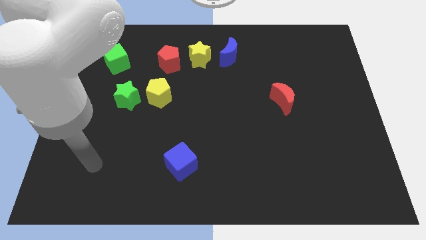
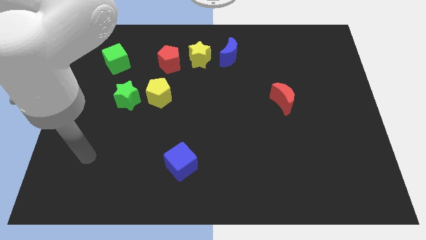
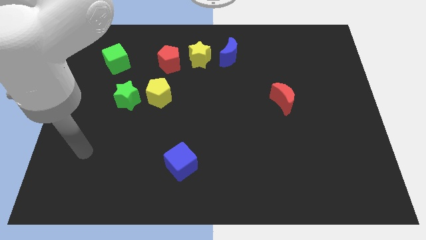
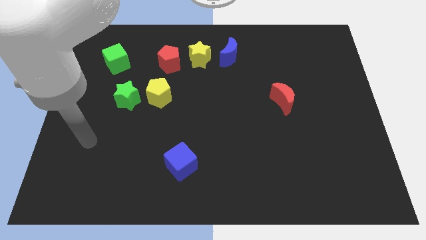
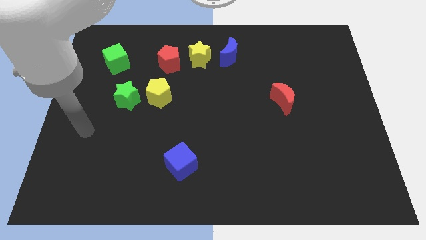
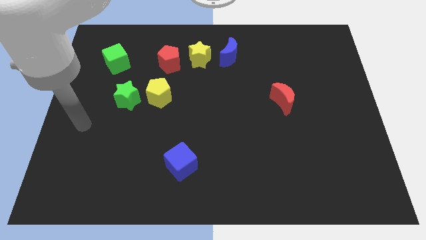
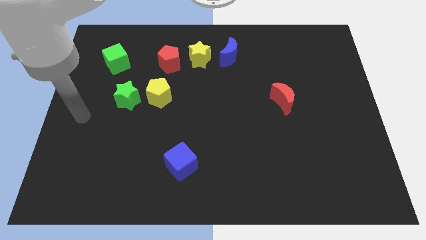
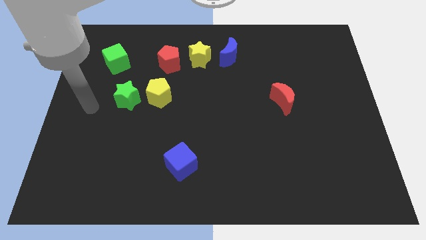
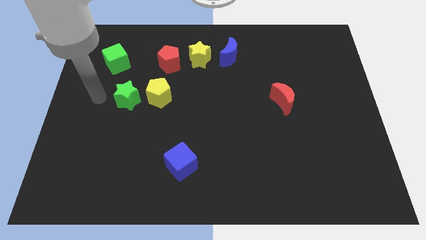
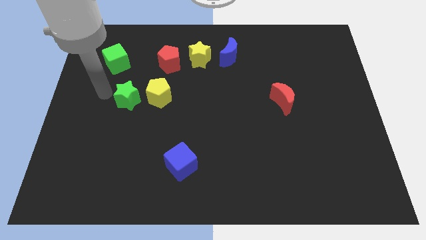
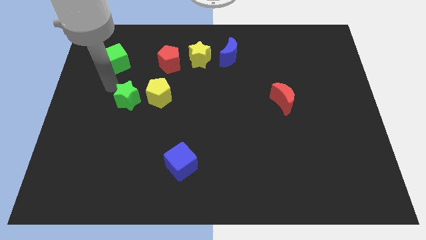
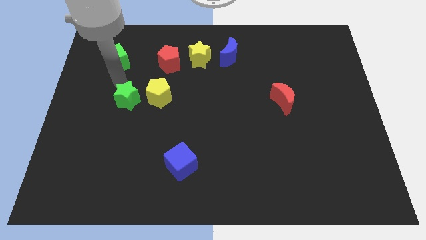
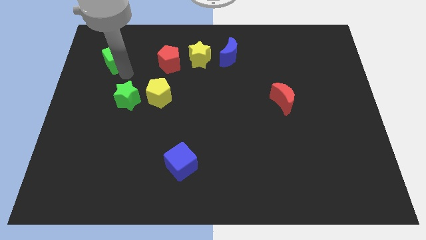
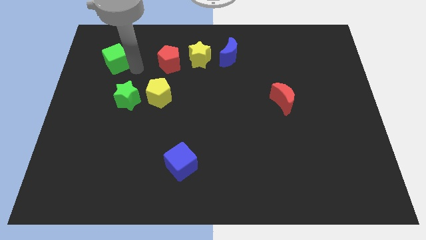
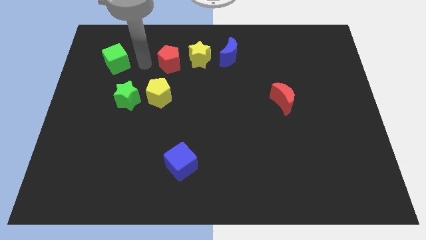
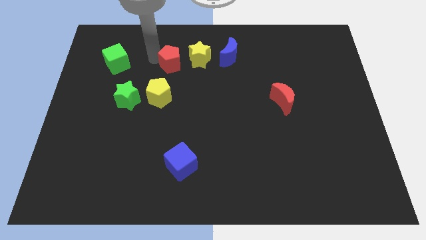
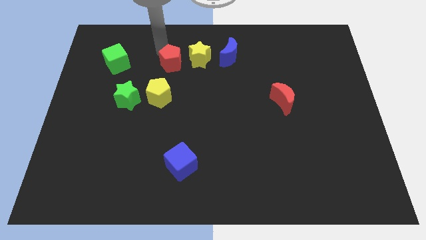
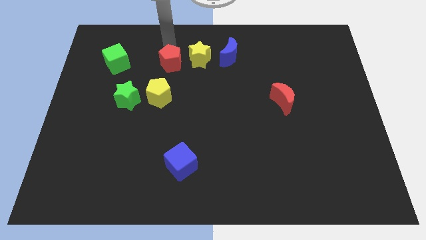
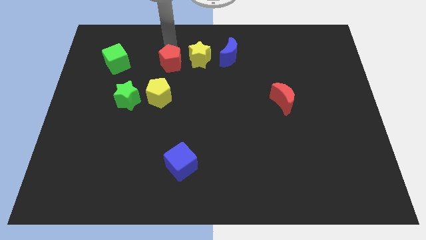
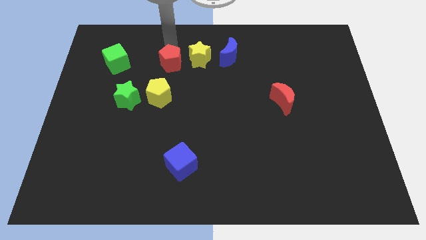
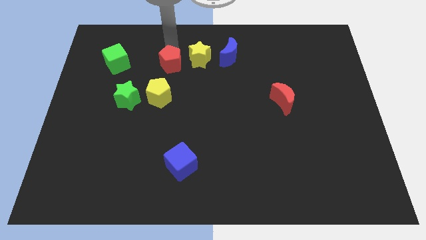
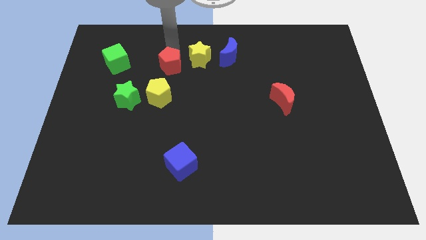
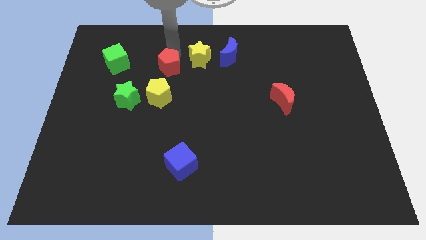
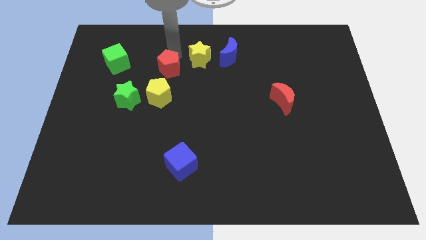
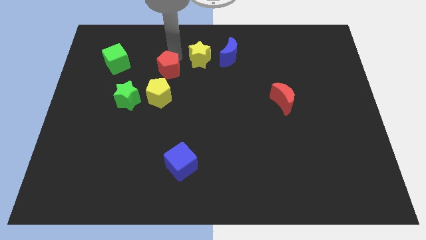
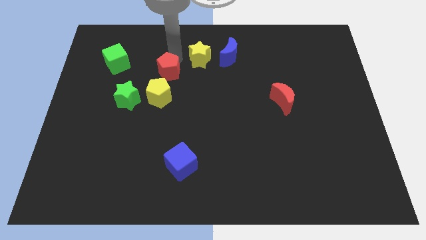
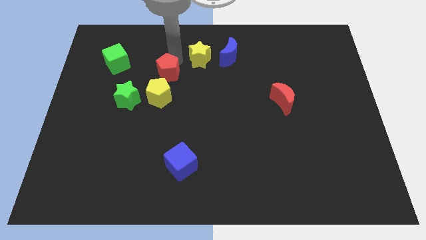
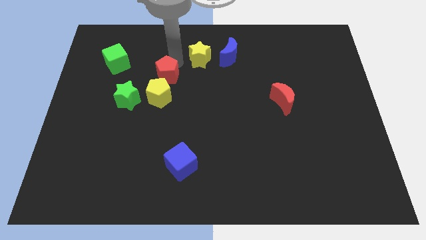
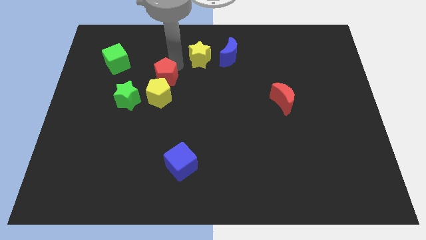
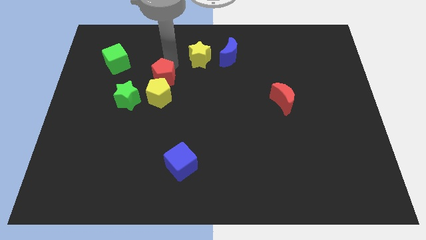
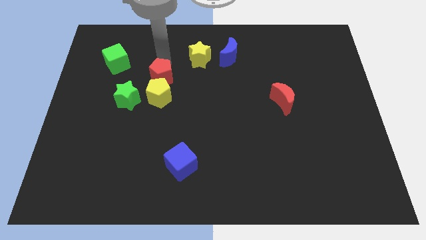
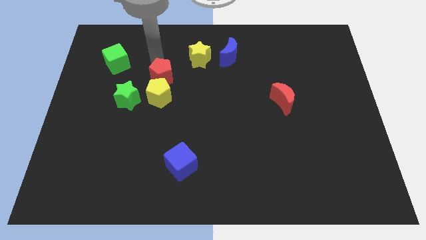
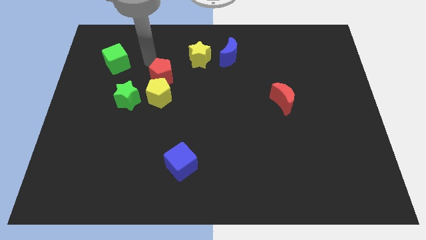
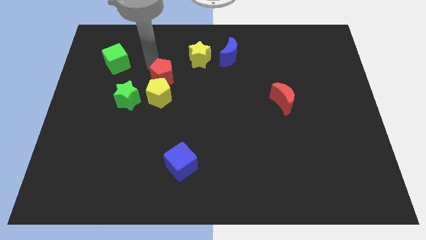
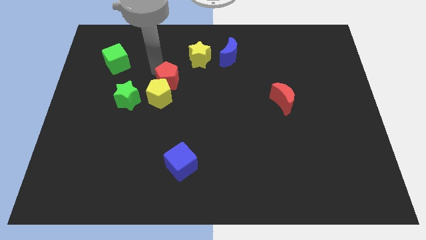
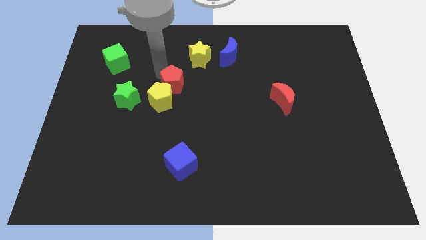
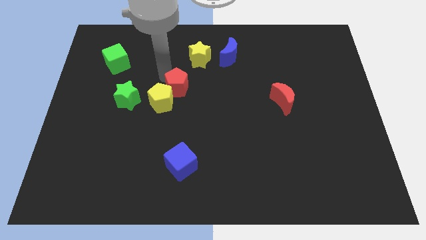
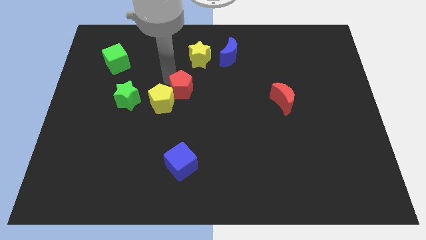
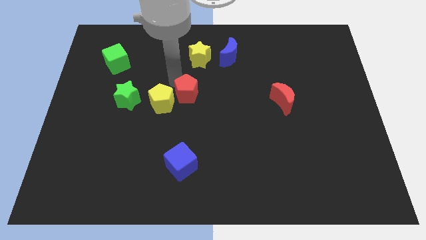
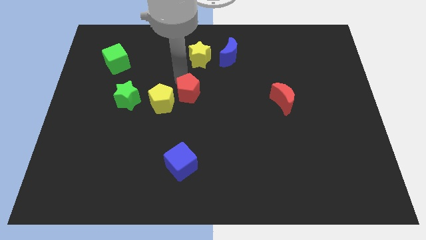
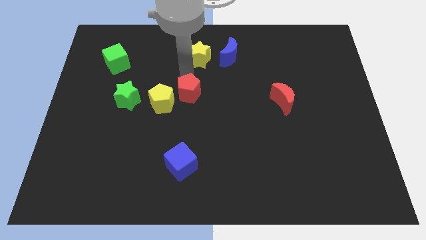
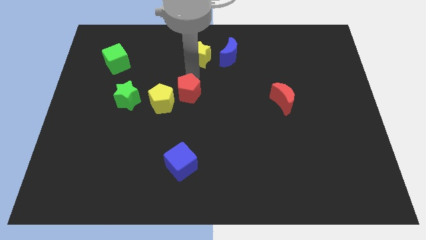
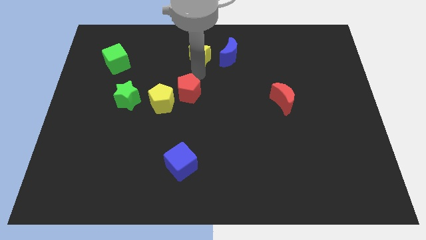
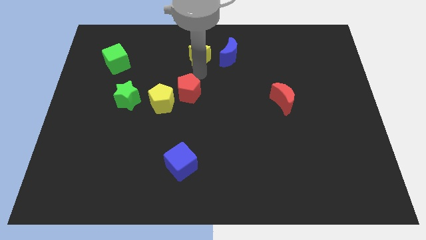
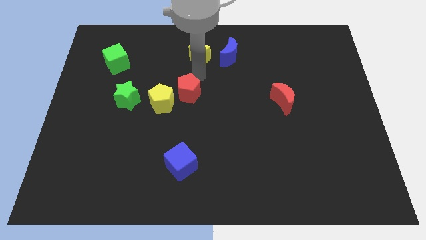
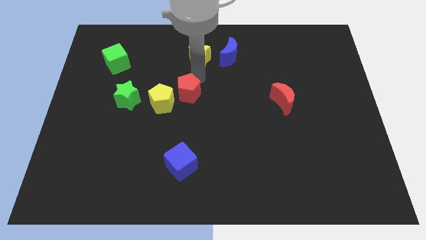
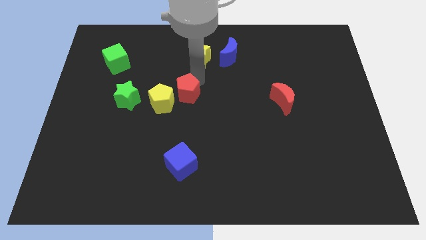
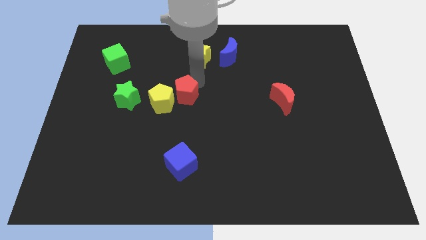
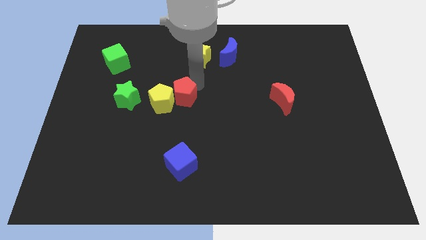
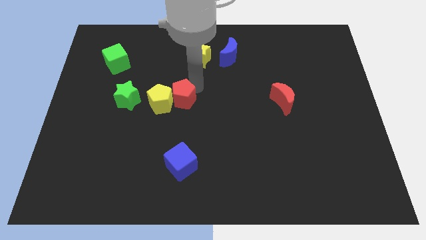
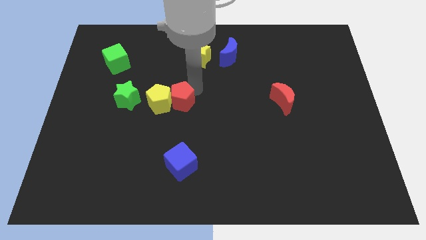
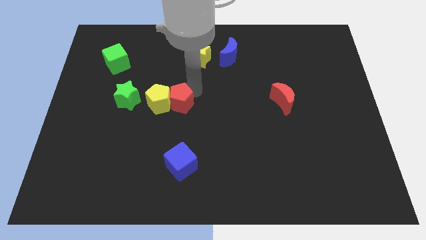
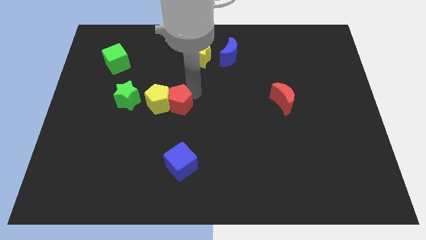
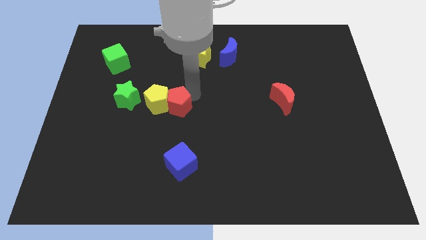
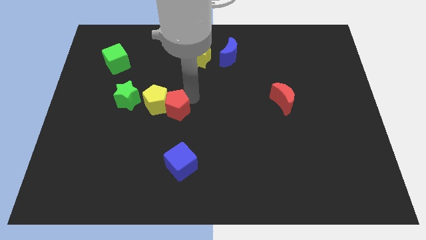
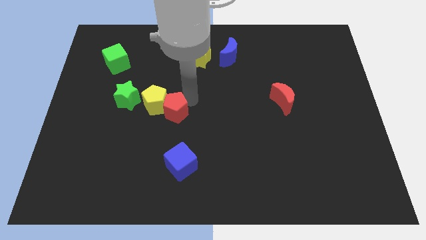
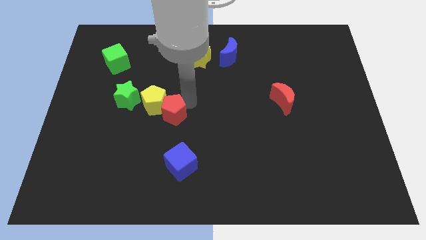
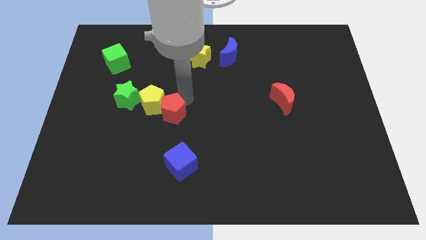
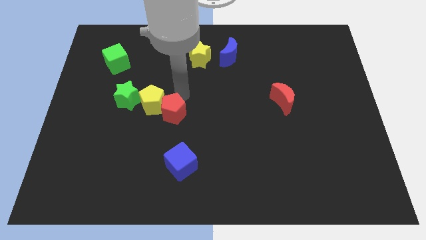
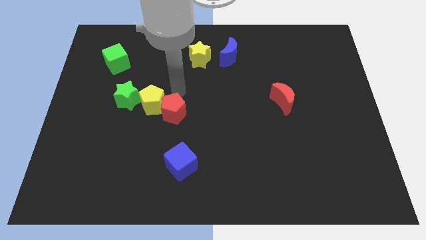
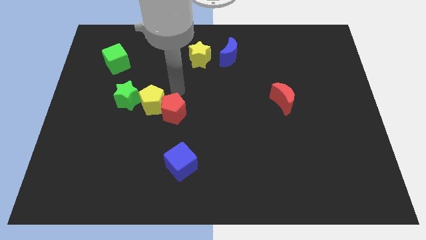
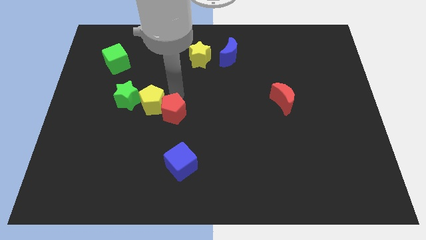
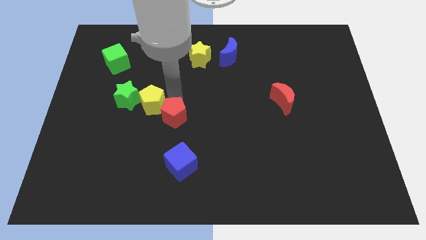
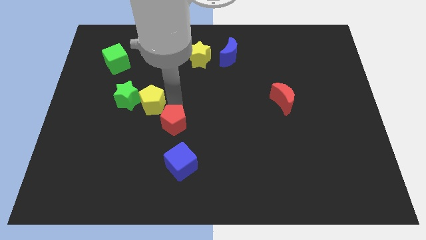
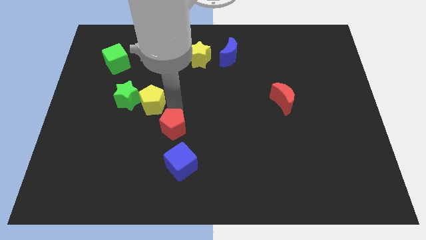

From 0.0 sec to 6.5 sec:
push the red pentagon down

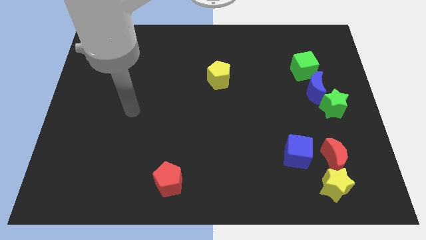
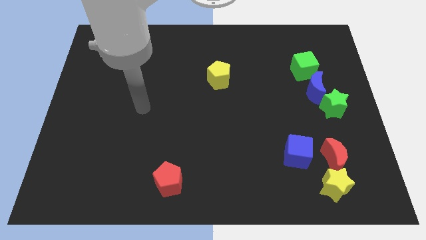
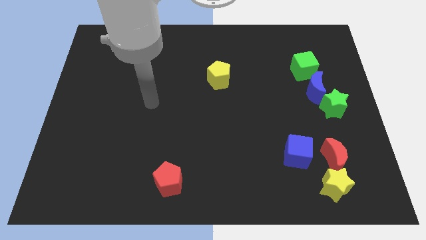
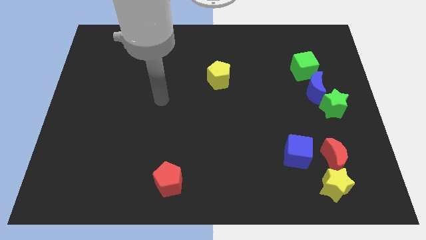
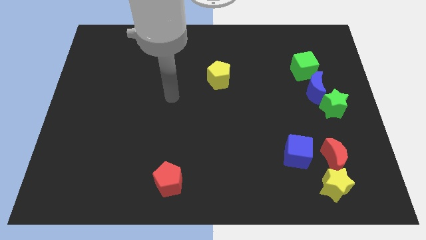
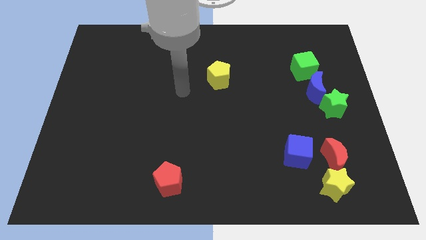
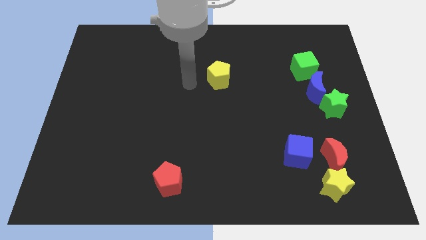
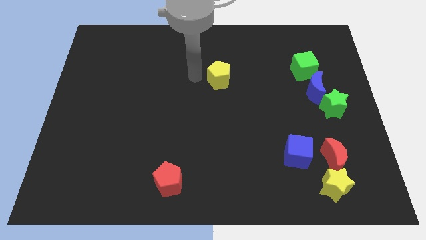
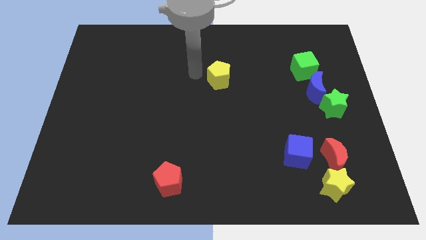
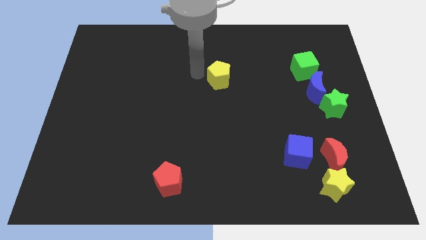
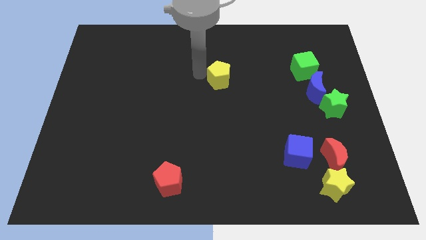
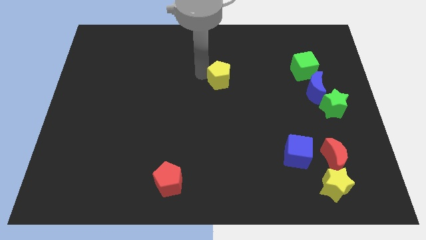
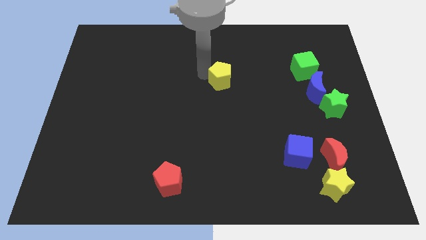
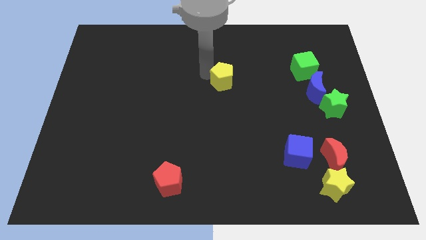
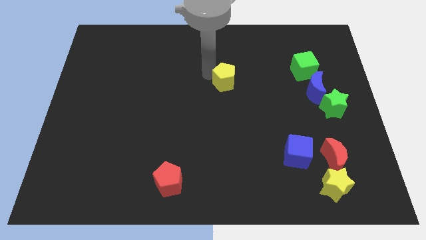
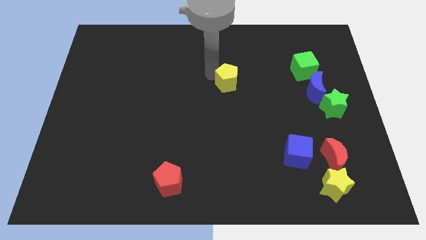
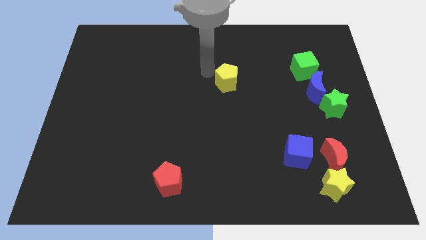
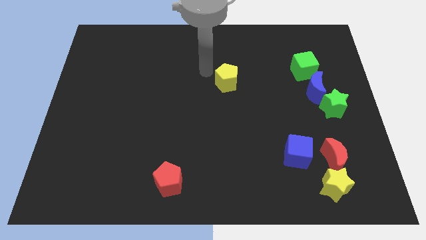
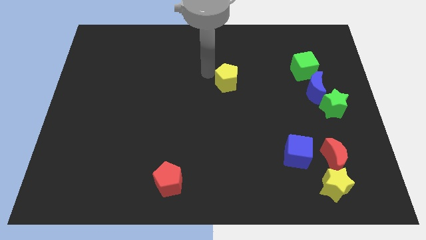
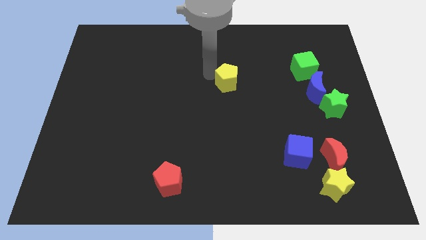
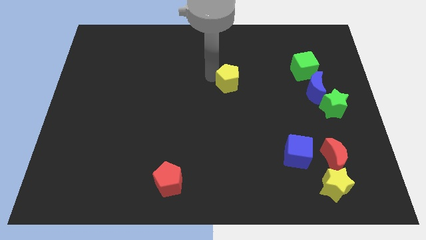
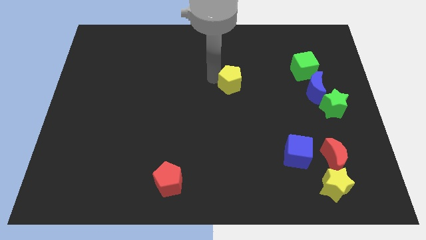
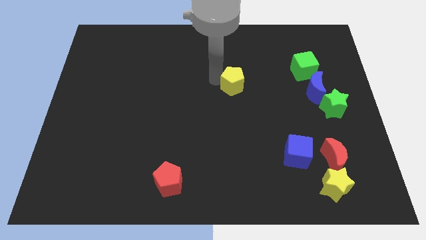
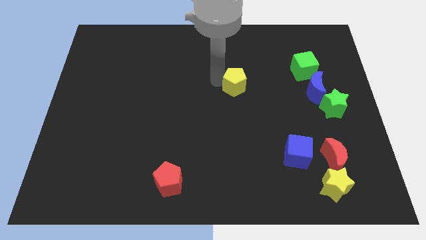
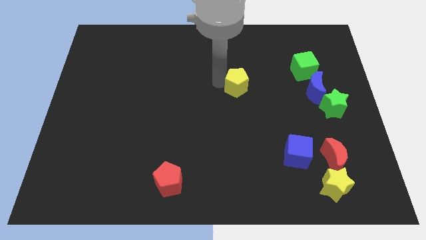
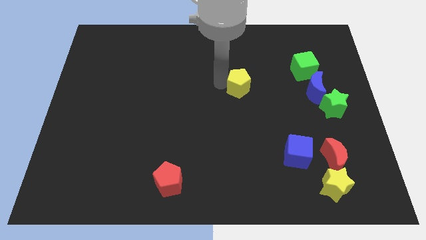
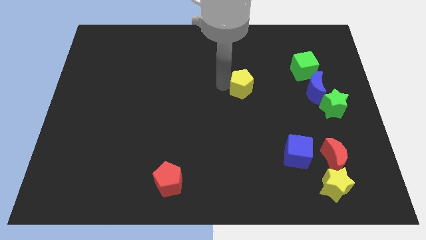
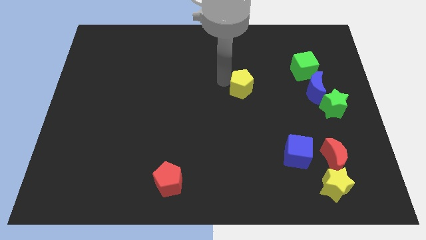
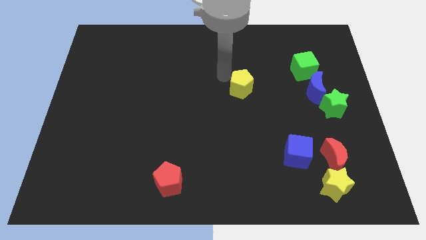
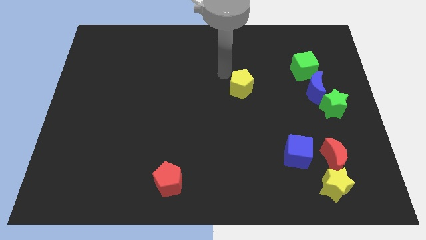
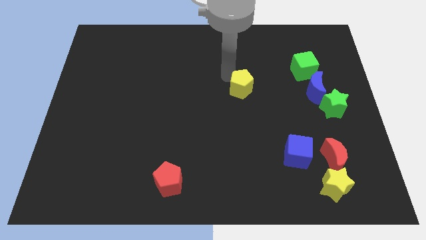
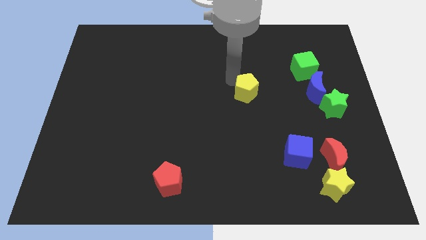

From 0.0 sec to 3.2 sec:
push the yellow pentagon somewhat downwards and right
